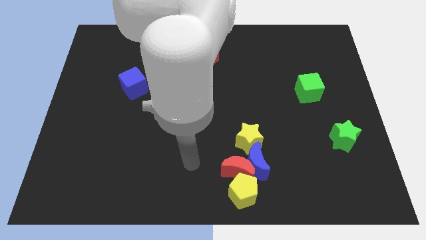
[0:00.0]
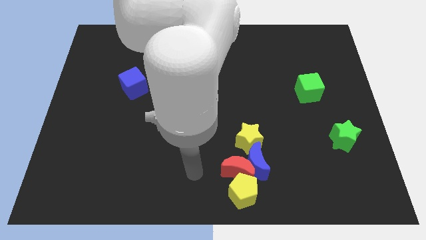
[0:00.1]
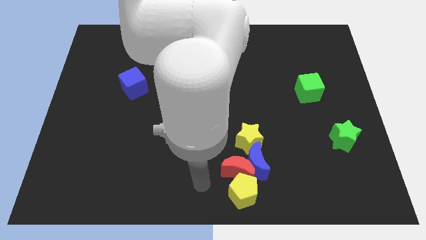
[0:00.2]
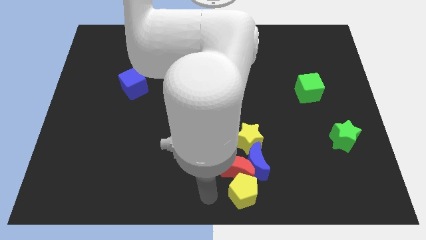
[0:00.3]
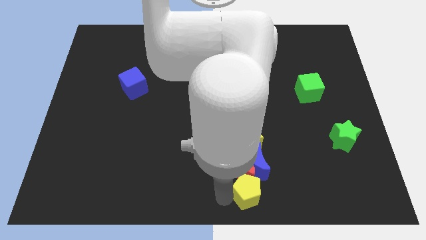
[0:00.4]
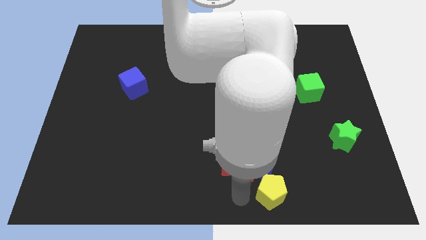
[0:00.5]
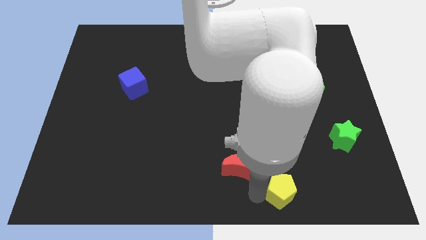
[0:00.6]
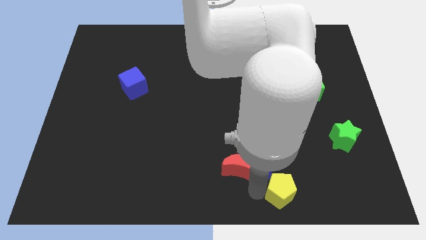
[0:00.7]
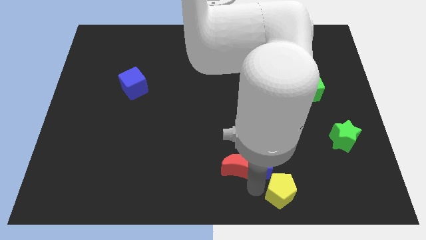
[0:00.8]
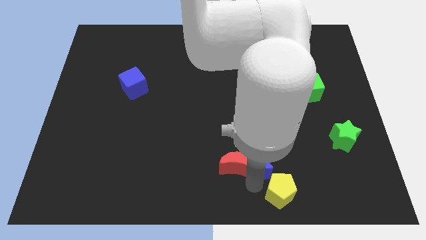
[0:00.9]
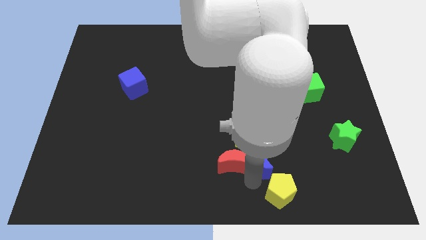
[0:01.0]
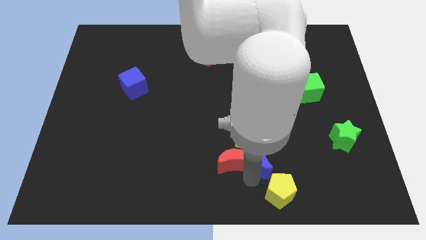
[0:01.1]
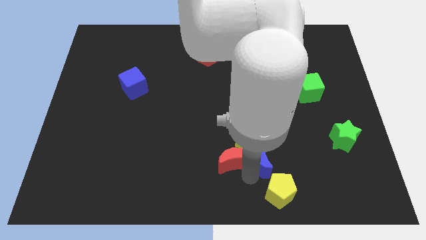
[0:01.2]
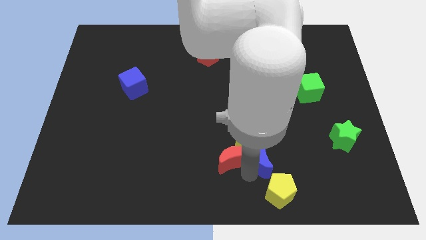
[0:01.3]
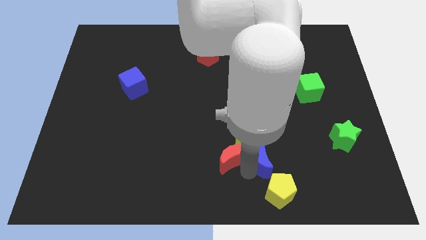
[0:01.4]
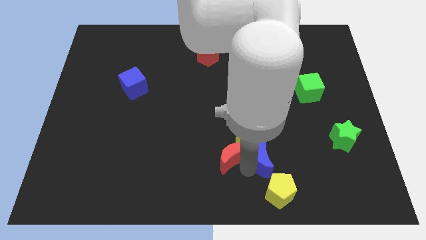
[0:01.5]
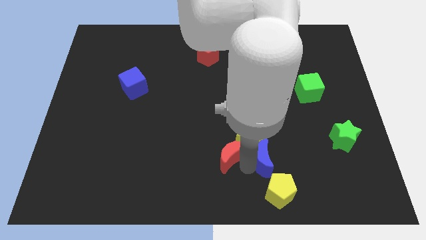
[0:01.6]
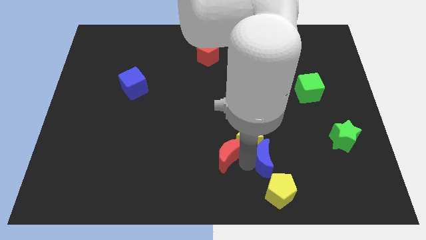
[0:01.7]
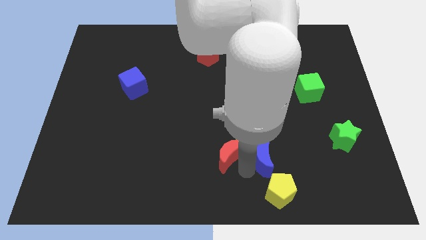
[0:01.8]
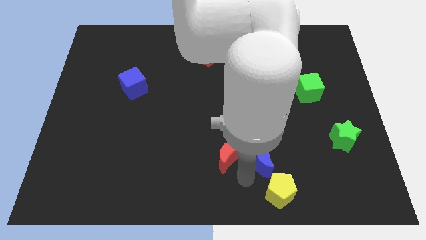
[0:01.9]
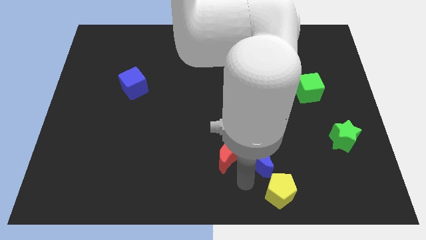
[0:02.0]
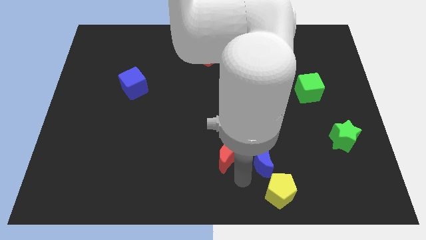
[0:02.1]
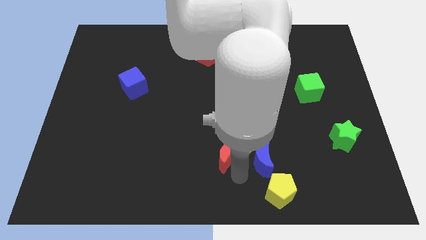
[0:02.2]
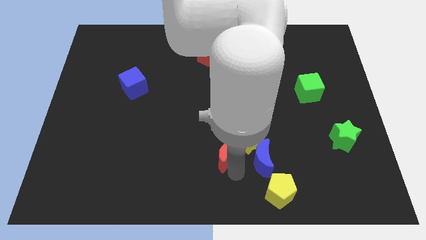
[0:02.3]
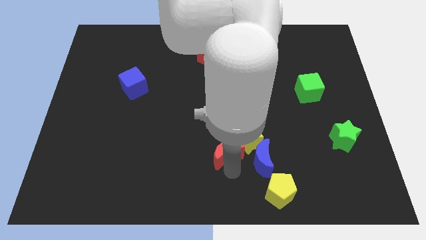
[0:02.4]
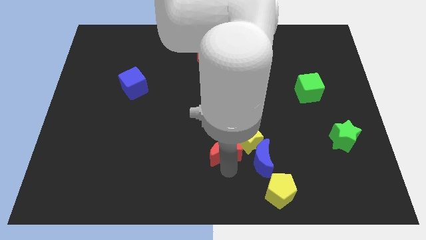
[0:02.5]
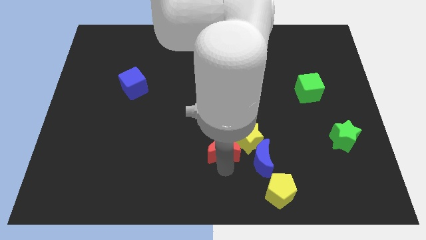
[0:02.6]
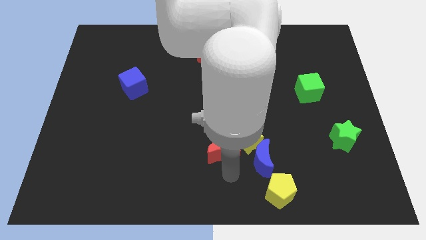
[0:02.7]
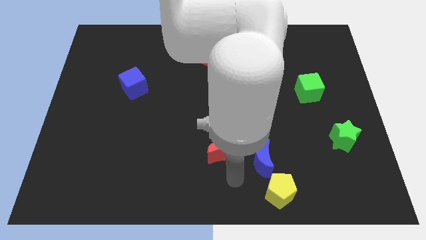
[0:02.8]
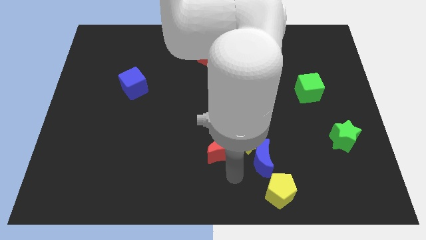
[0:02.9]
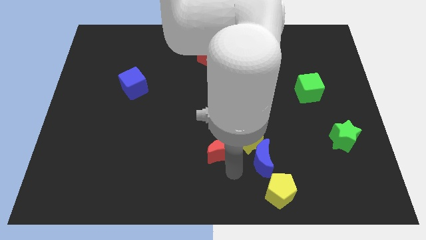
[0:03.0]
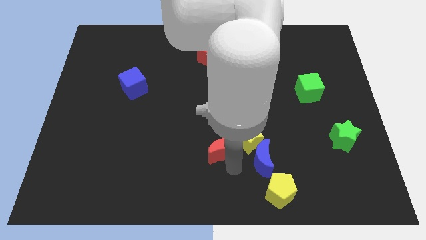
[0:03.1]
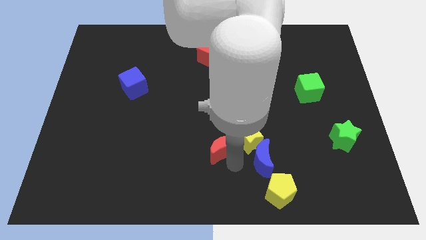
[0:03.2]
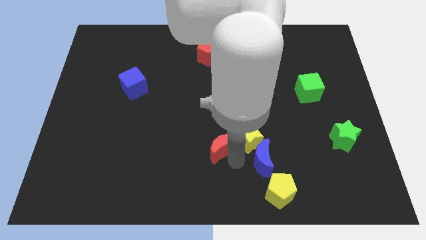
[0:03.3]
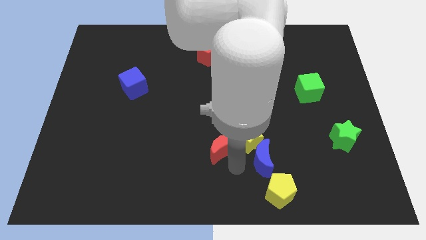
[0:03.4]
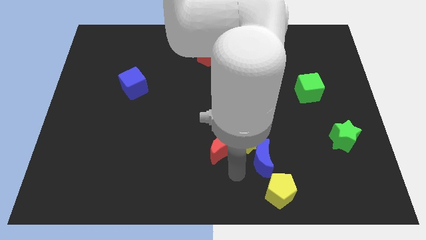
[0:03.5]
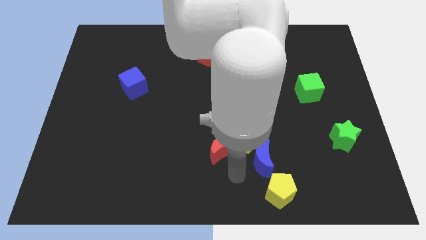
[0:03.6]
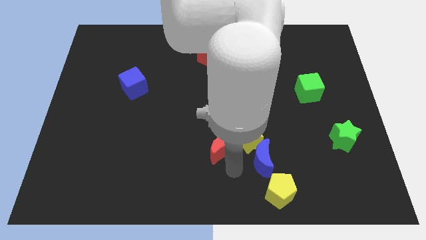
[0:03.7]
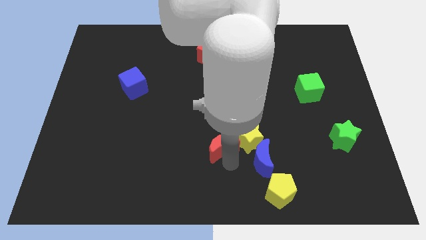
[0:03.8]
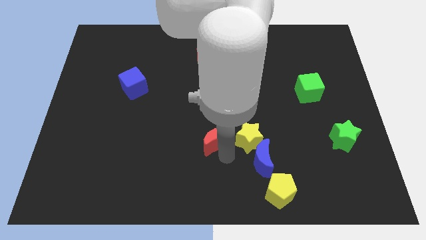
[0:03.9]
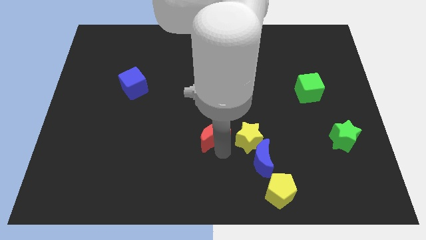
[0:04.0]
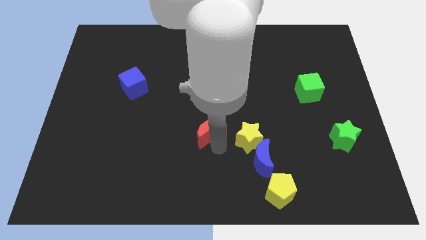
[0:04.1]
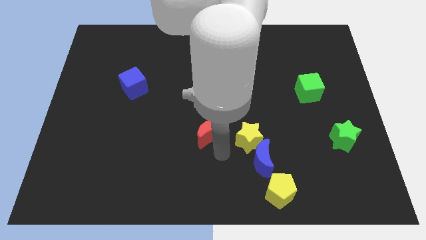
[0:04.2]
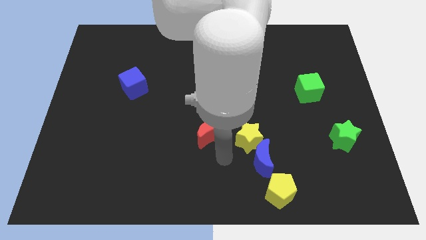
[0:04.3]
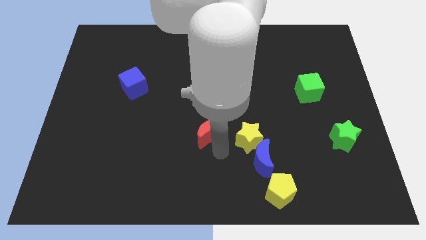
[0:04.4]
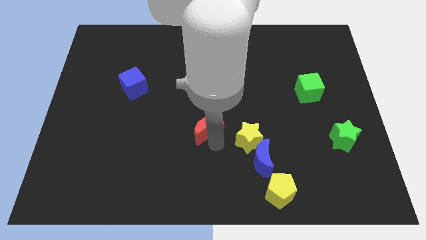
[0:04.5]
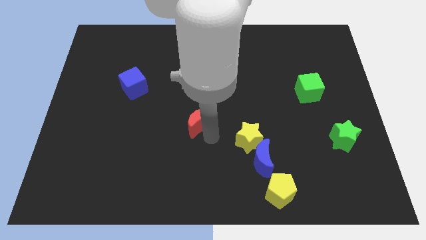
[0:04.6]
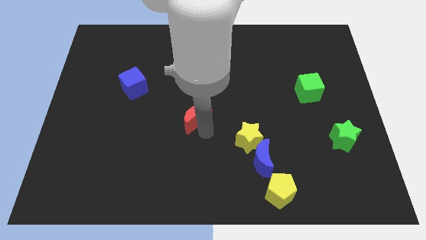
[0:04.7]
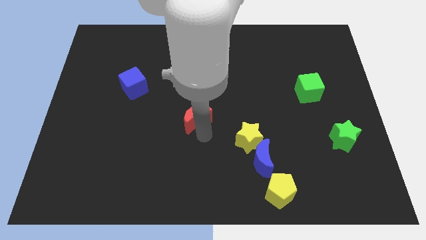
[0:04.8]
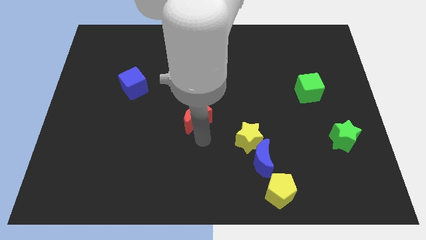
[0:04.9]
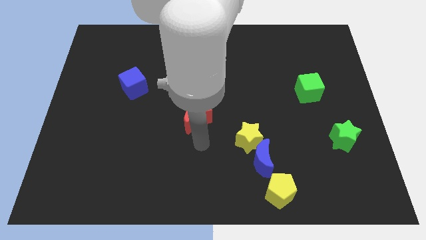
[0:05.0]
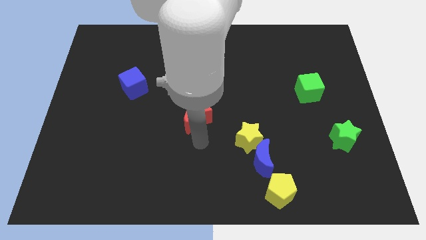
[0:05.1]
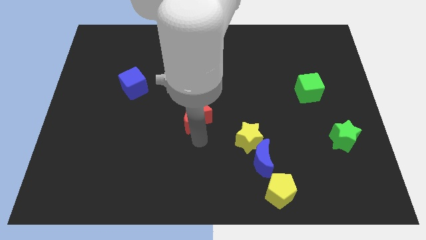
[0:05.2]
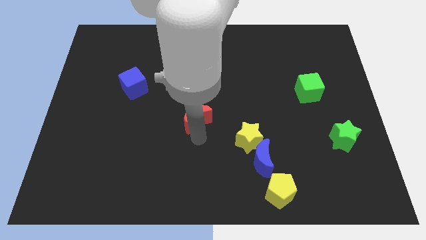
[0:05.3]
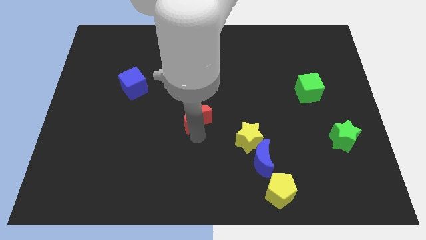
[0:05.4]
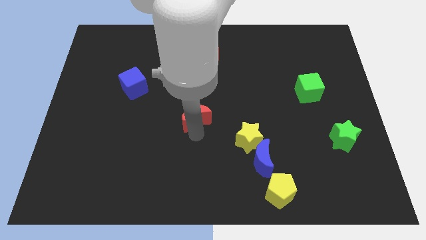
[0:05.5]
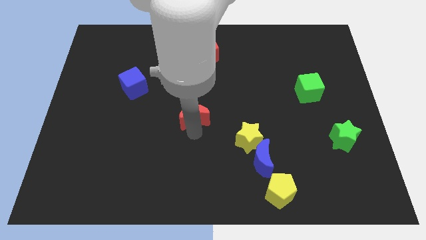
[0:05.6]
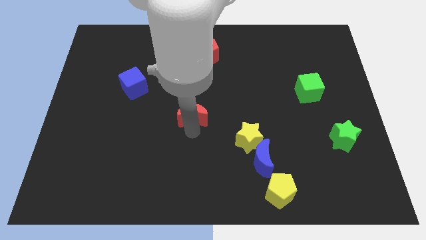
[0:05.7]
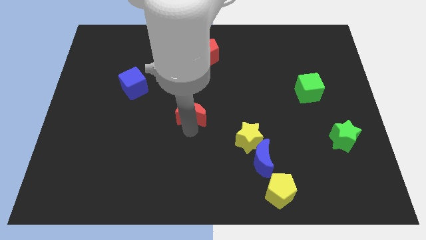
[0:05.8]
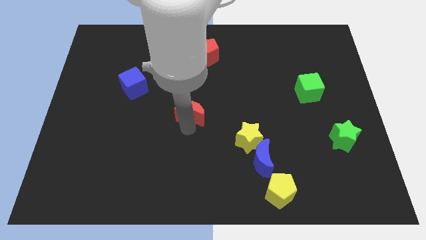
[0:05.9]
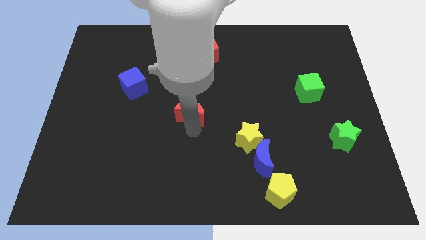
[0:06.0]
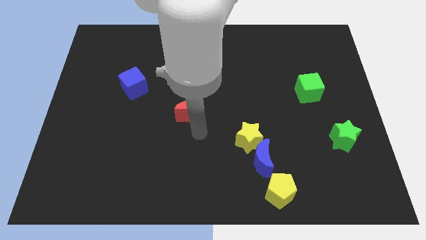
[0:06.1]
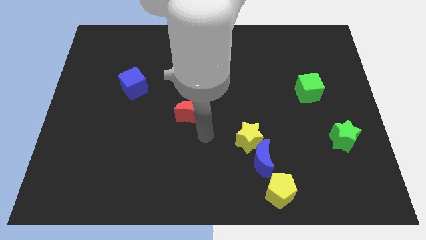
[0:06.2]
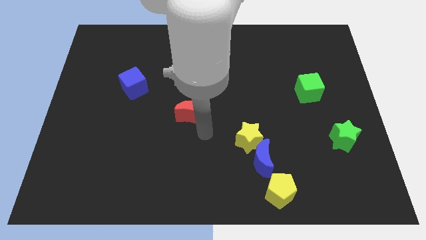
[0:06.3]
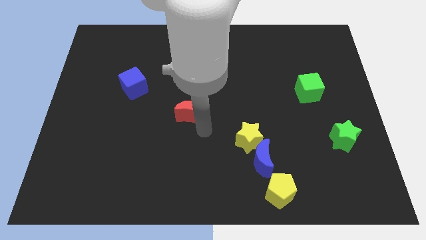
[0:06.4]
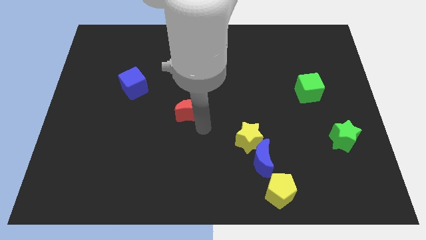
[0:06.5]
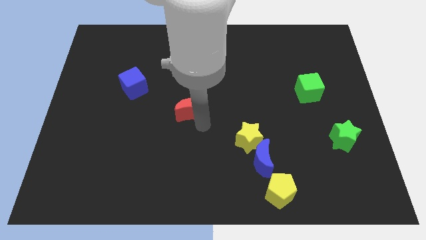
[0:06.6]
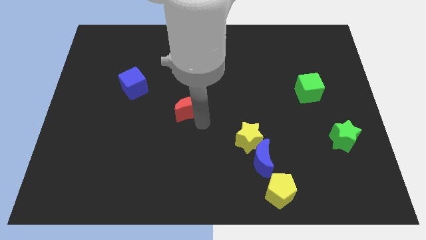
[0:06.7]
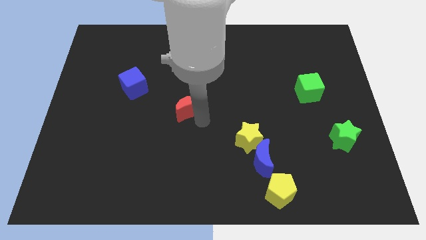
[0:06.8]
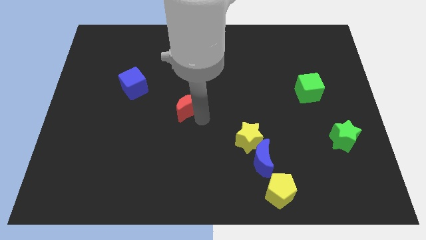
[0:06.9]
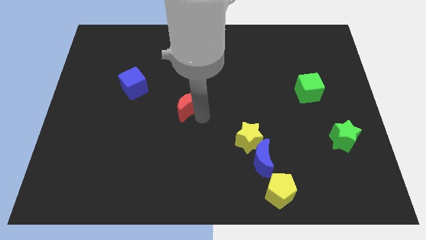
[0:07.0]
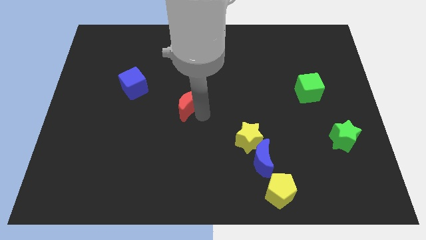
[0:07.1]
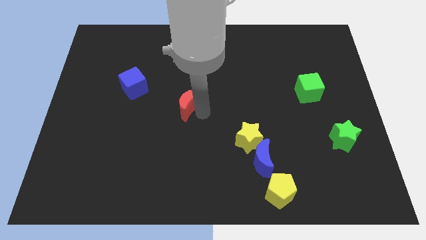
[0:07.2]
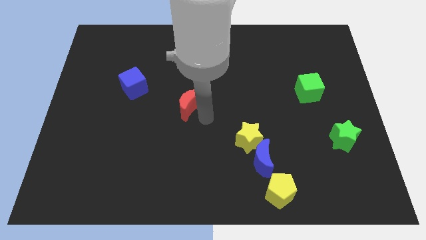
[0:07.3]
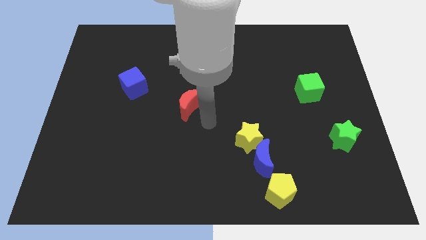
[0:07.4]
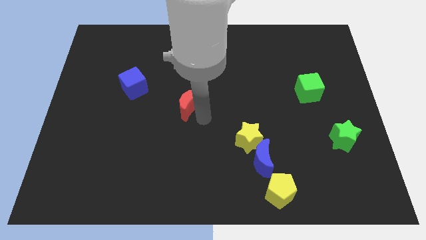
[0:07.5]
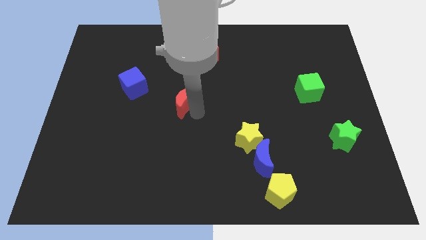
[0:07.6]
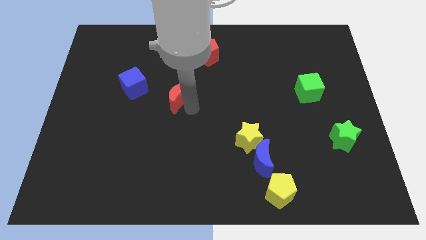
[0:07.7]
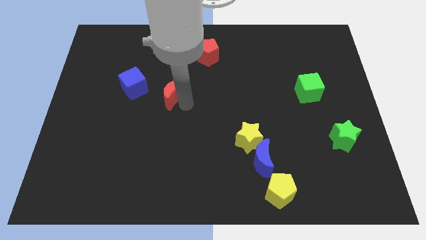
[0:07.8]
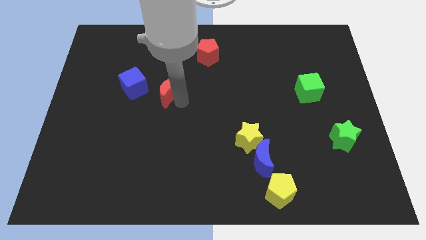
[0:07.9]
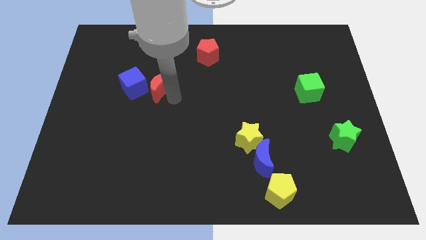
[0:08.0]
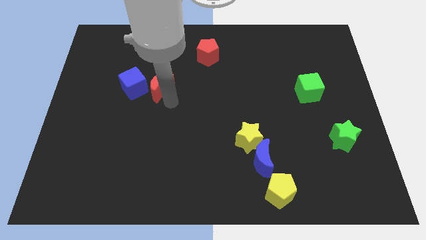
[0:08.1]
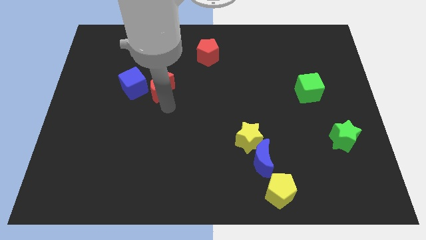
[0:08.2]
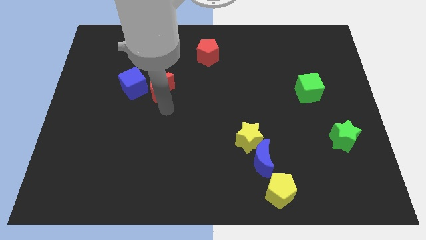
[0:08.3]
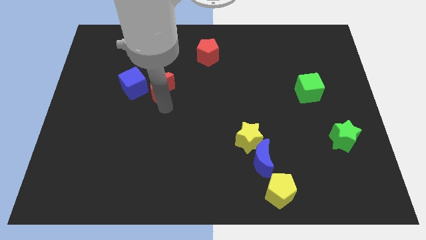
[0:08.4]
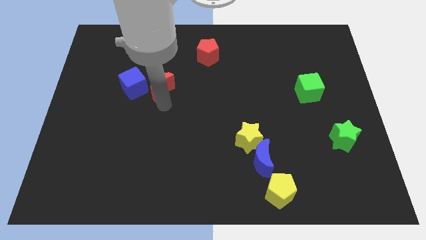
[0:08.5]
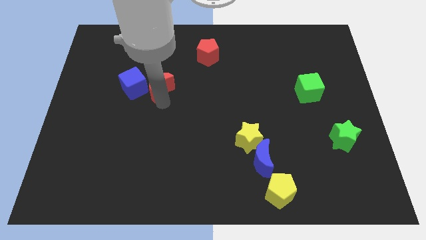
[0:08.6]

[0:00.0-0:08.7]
push the red moon diagonally up and to the right of the blue cube
